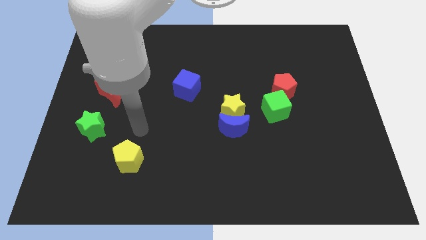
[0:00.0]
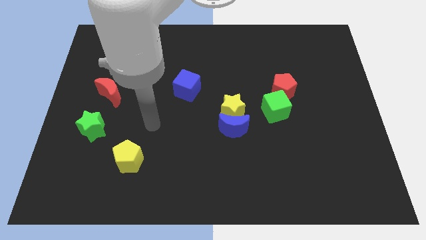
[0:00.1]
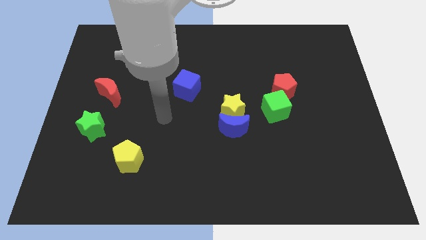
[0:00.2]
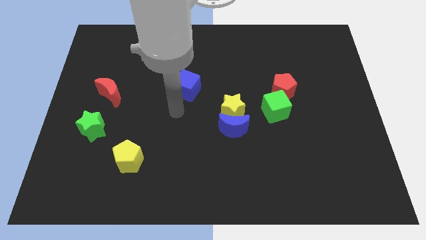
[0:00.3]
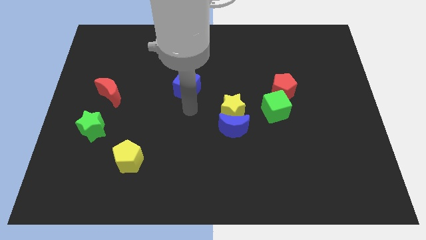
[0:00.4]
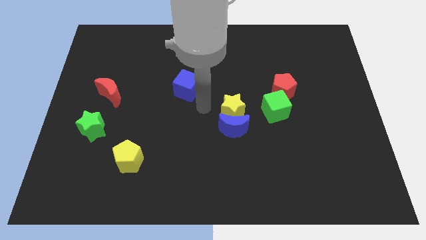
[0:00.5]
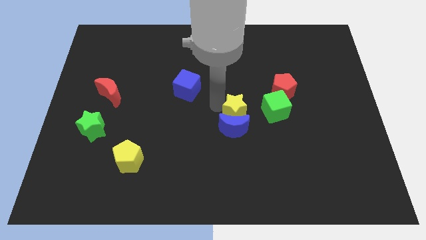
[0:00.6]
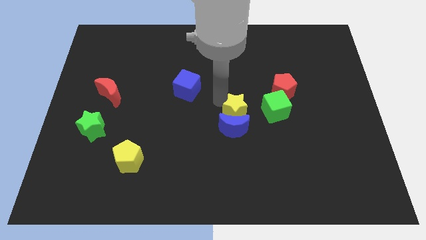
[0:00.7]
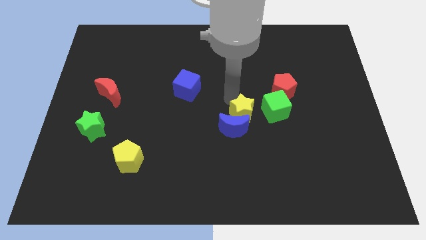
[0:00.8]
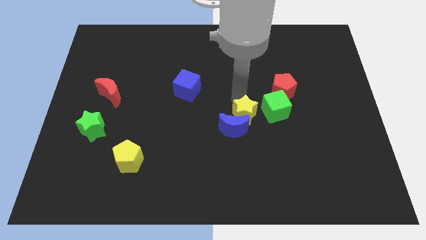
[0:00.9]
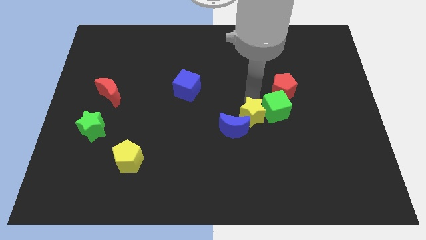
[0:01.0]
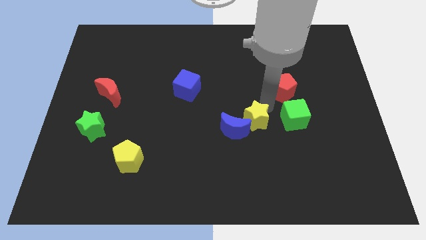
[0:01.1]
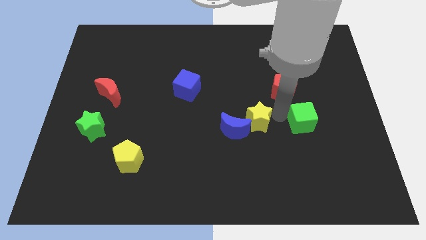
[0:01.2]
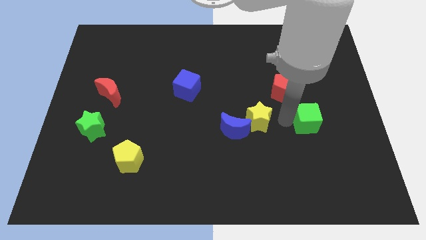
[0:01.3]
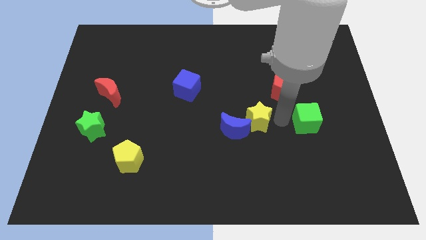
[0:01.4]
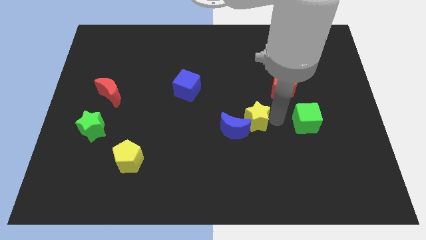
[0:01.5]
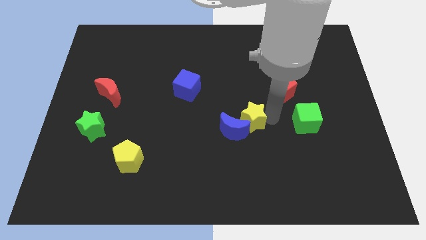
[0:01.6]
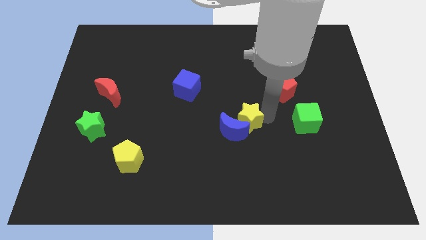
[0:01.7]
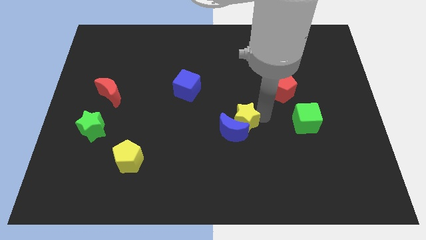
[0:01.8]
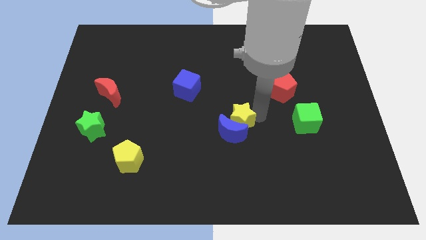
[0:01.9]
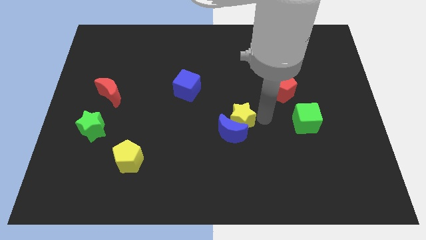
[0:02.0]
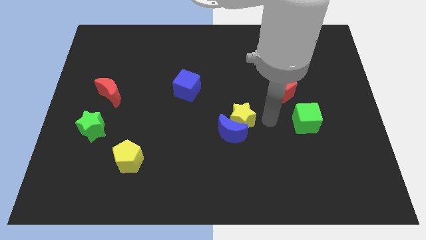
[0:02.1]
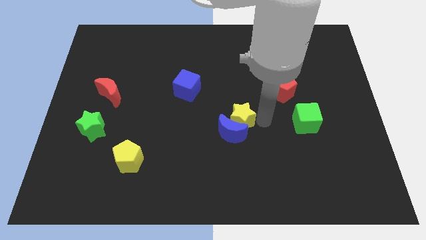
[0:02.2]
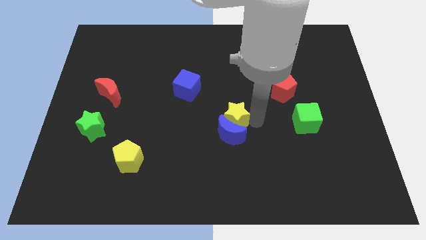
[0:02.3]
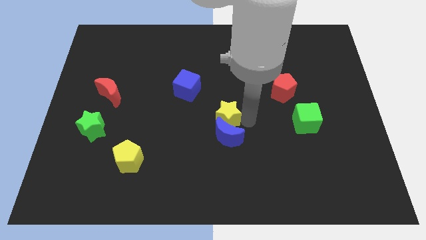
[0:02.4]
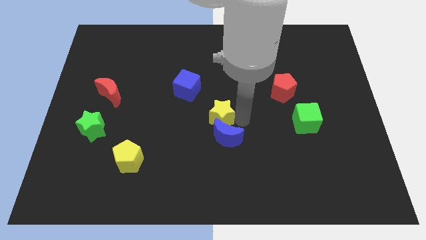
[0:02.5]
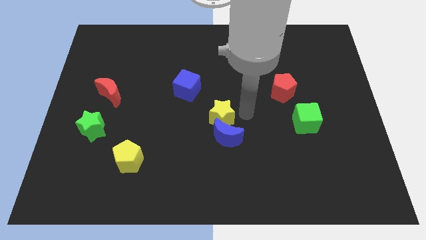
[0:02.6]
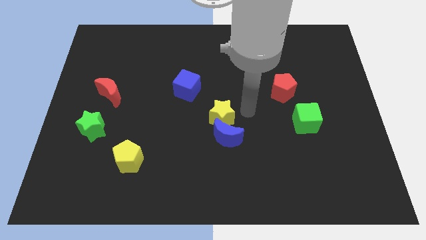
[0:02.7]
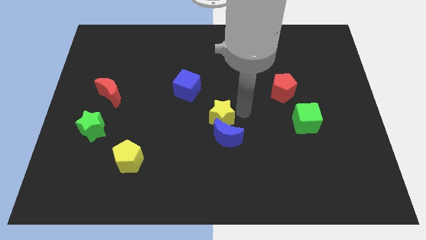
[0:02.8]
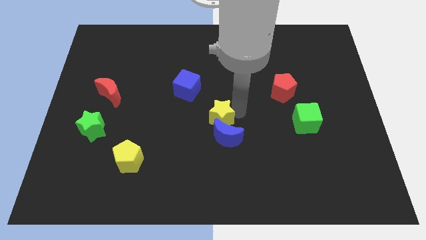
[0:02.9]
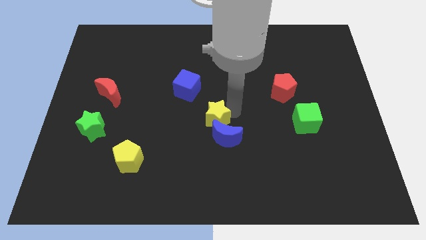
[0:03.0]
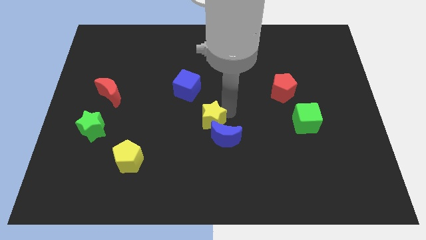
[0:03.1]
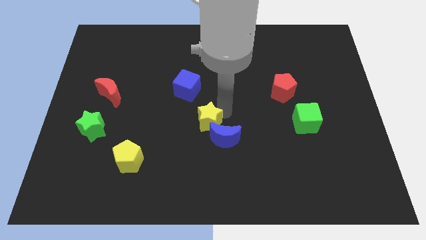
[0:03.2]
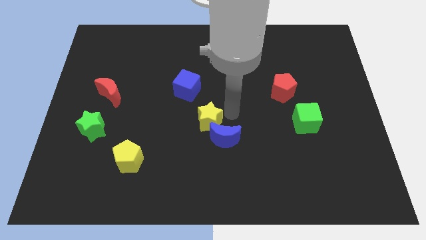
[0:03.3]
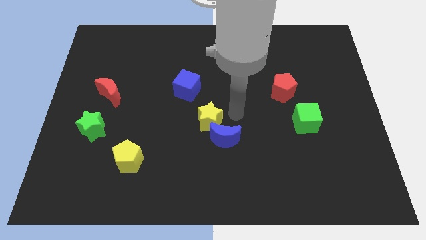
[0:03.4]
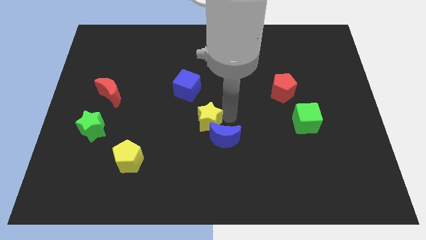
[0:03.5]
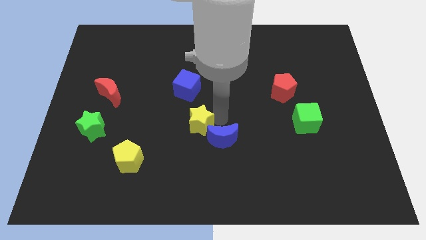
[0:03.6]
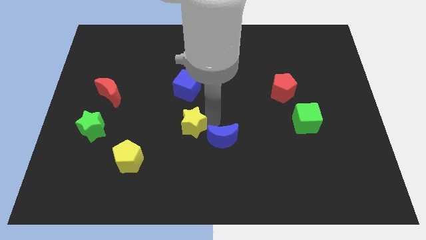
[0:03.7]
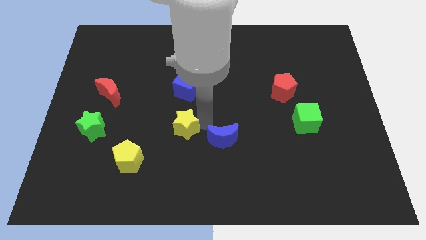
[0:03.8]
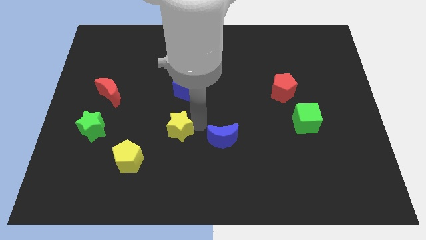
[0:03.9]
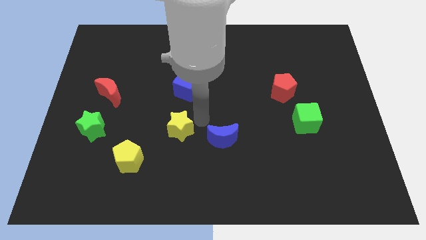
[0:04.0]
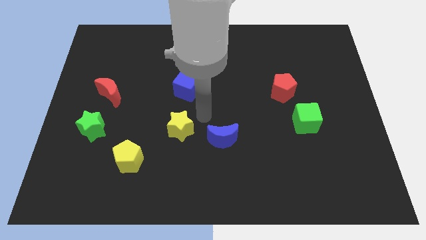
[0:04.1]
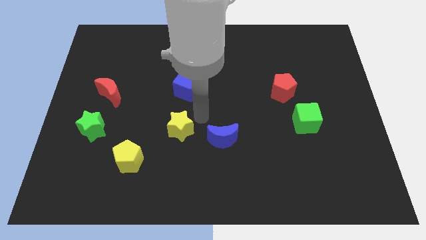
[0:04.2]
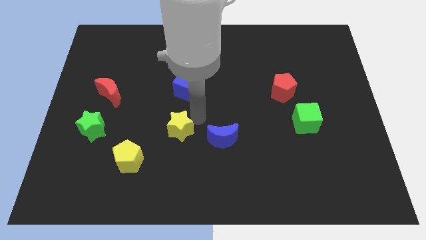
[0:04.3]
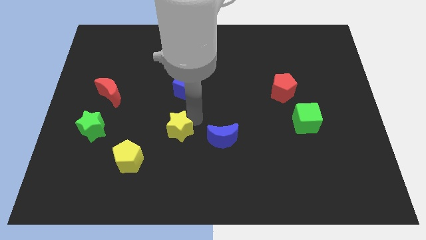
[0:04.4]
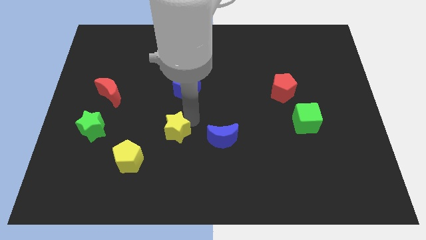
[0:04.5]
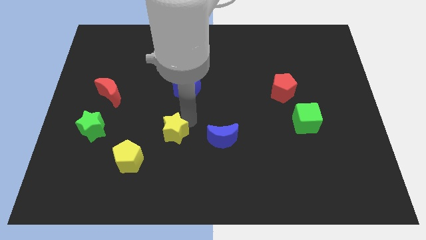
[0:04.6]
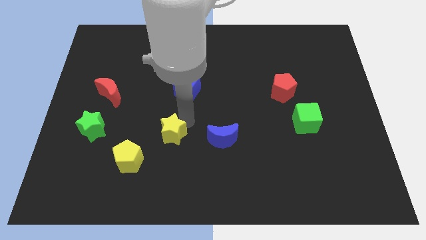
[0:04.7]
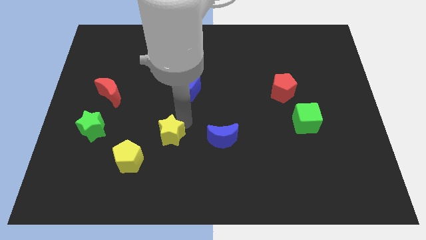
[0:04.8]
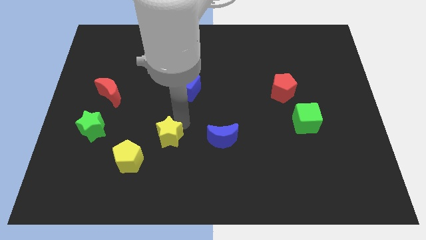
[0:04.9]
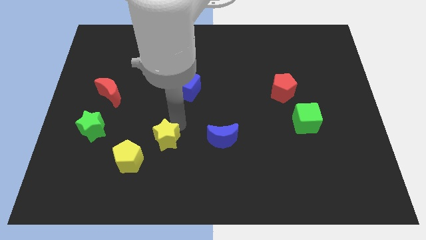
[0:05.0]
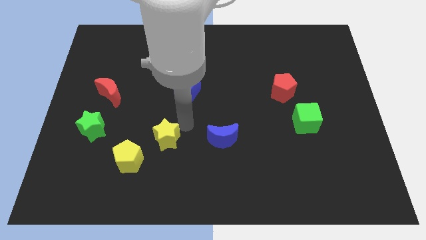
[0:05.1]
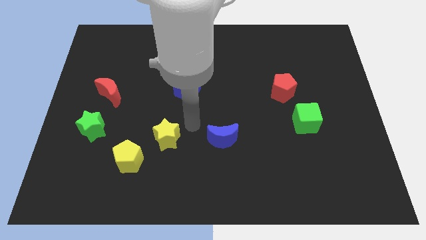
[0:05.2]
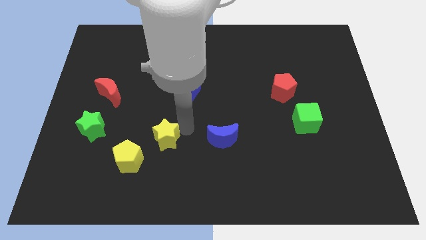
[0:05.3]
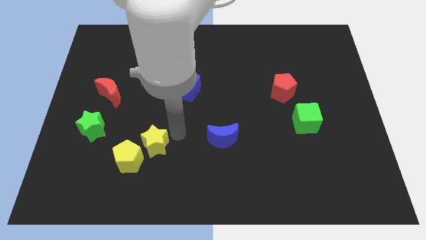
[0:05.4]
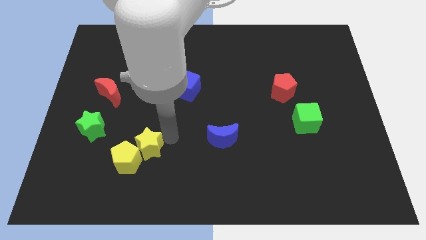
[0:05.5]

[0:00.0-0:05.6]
put the yellow star close to the yellow pentagon

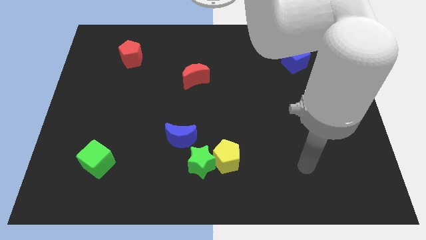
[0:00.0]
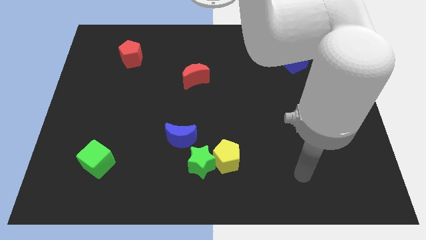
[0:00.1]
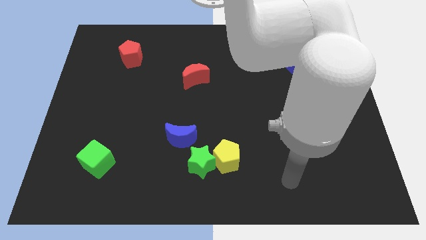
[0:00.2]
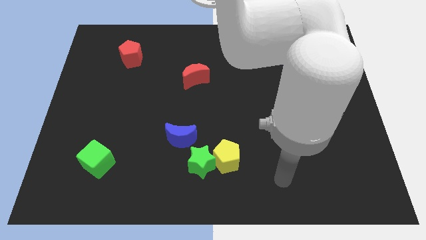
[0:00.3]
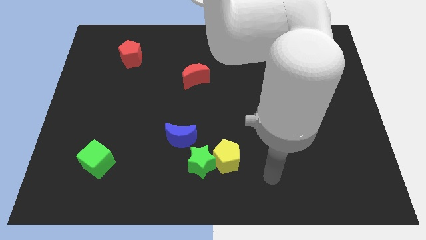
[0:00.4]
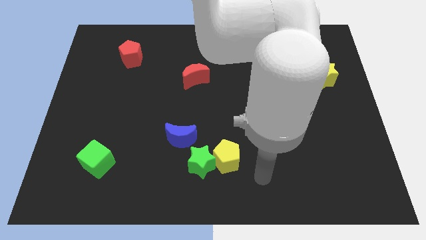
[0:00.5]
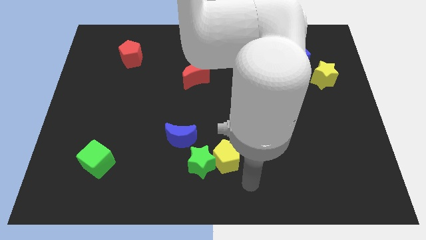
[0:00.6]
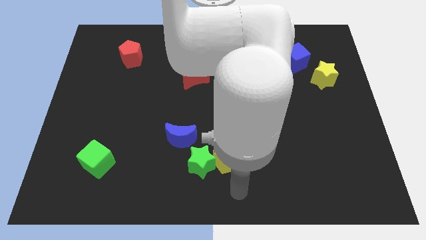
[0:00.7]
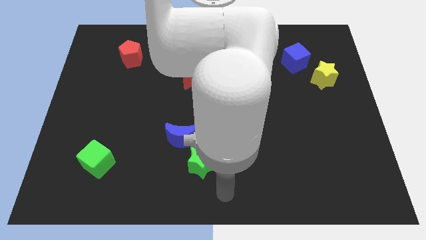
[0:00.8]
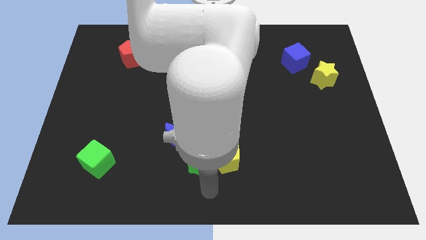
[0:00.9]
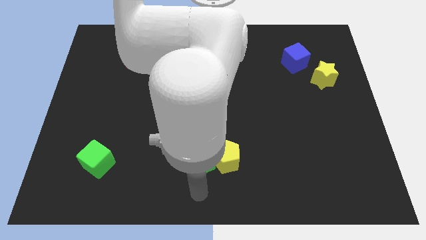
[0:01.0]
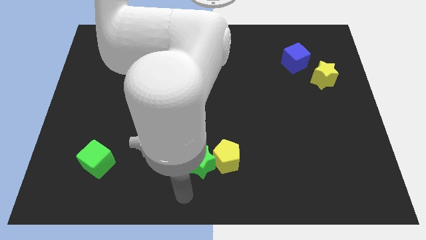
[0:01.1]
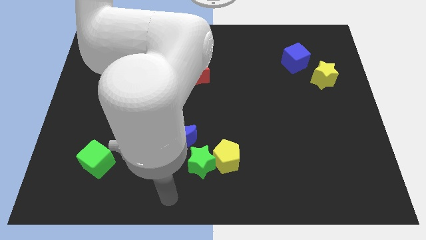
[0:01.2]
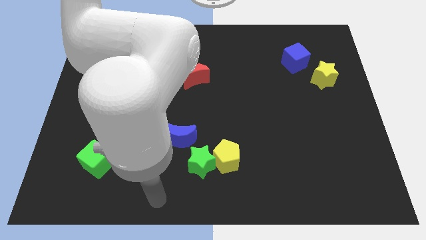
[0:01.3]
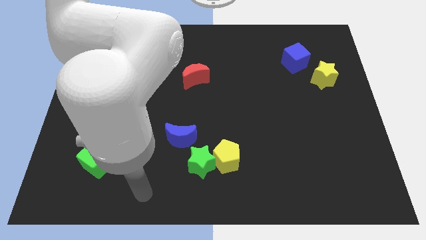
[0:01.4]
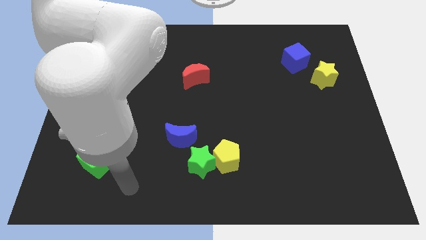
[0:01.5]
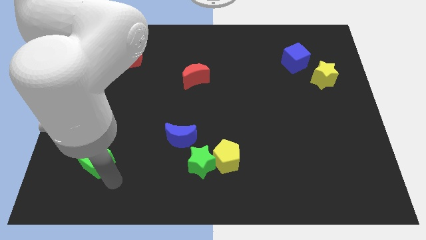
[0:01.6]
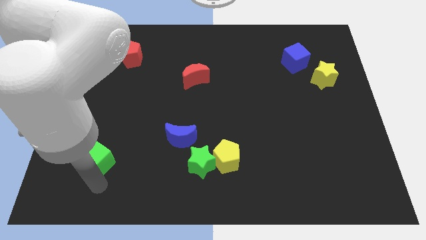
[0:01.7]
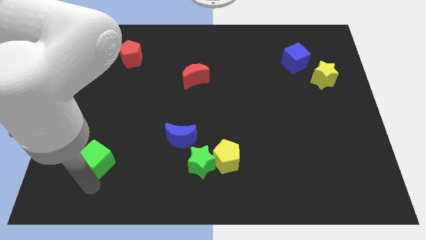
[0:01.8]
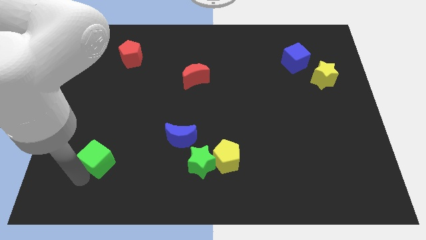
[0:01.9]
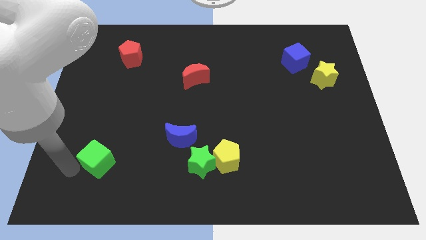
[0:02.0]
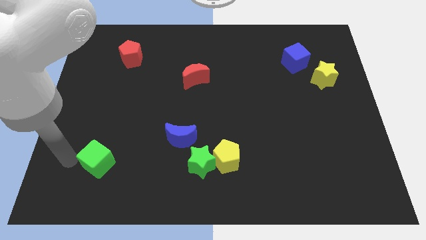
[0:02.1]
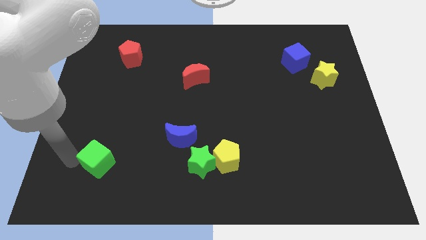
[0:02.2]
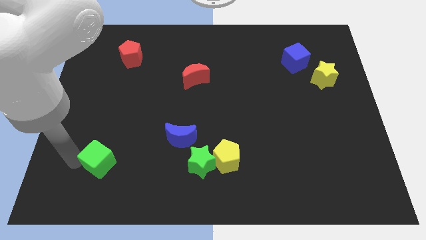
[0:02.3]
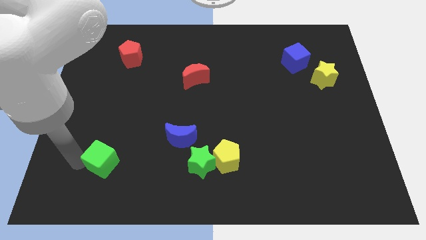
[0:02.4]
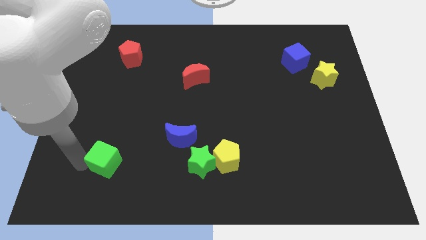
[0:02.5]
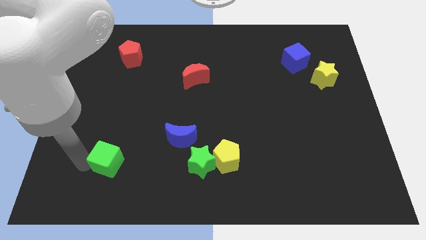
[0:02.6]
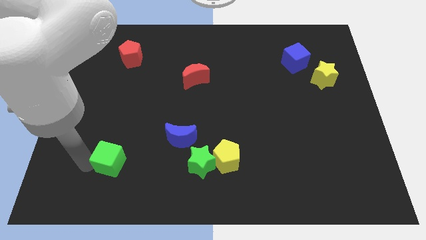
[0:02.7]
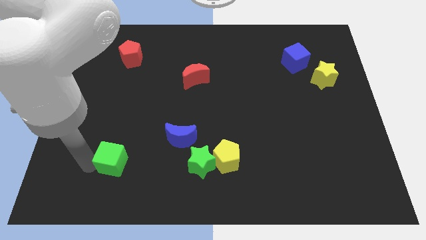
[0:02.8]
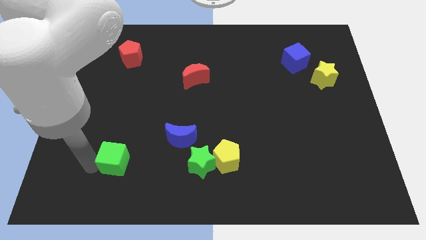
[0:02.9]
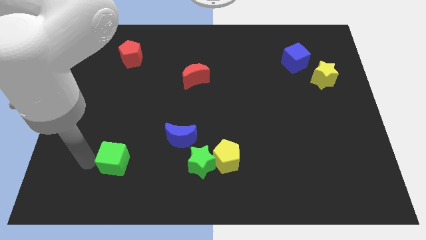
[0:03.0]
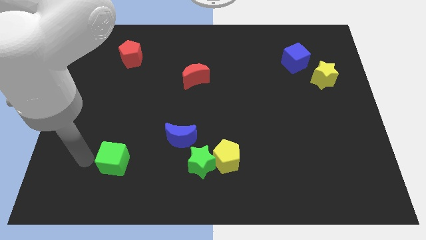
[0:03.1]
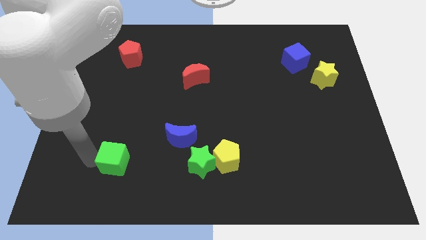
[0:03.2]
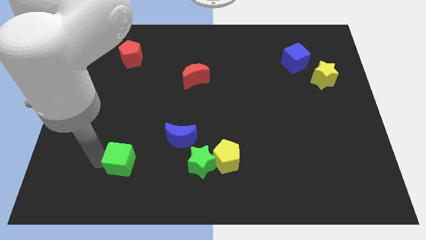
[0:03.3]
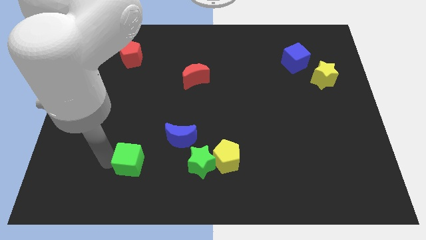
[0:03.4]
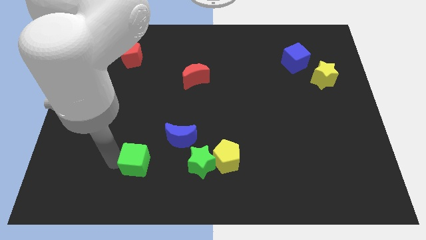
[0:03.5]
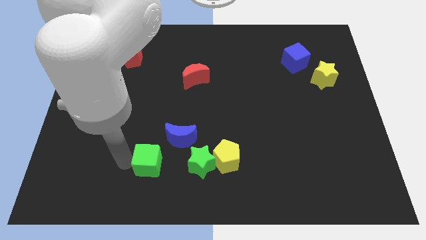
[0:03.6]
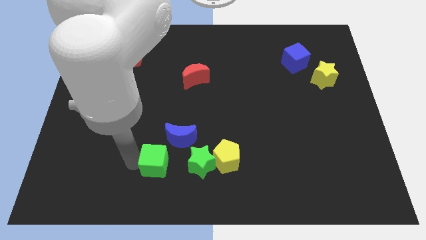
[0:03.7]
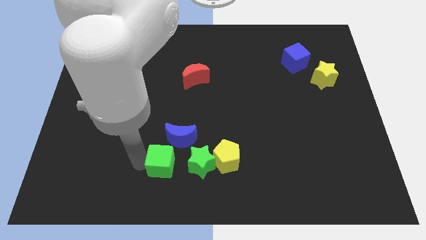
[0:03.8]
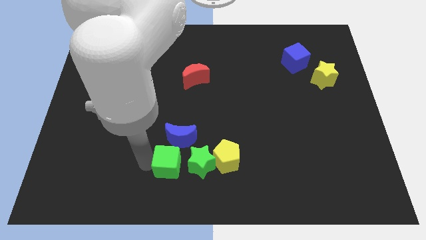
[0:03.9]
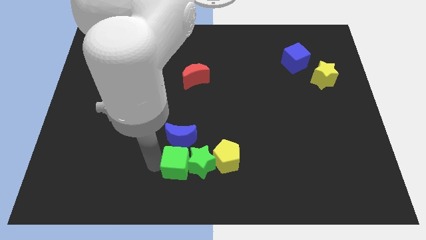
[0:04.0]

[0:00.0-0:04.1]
push the green cube close to the green star
